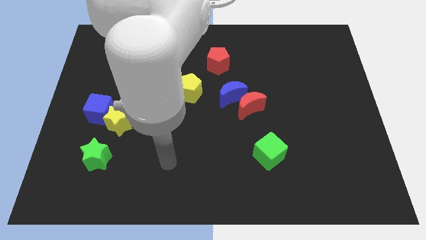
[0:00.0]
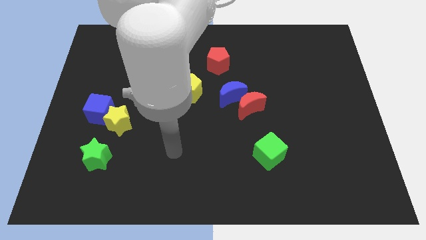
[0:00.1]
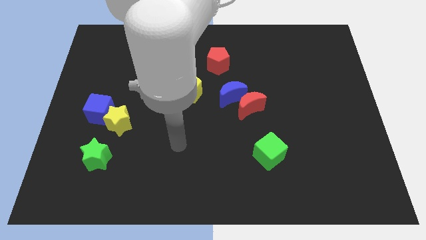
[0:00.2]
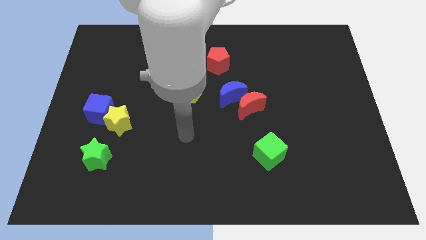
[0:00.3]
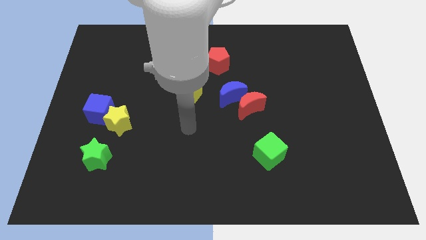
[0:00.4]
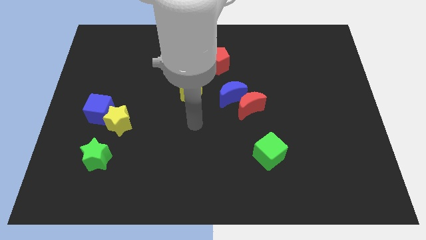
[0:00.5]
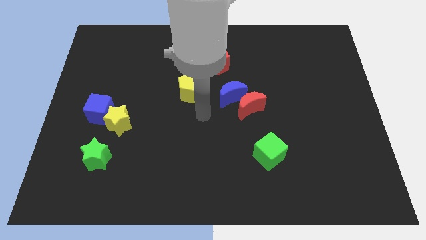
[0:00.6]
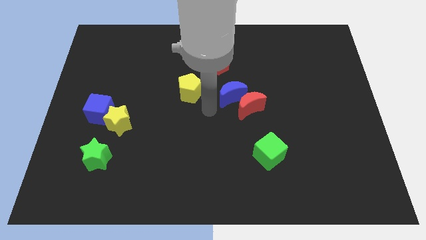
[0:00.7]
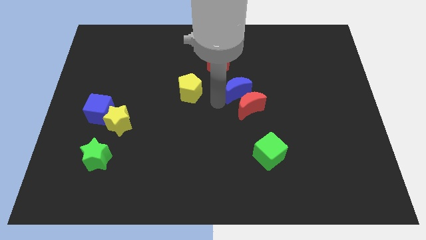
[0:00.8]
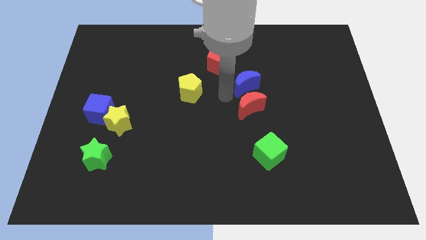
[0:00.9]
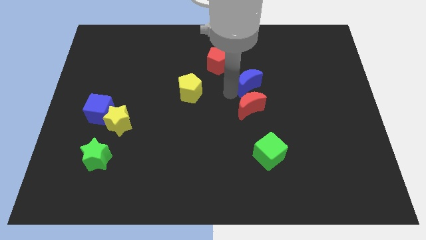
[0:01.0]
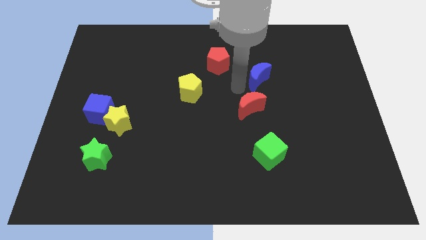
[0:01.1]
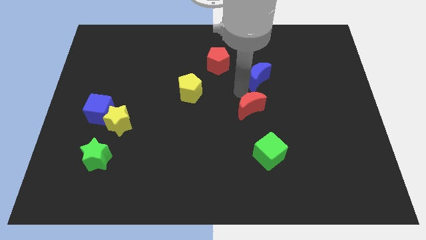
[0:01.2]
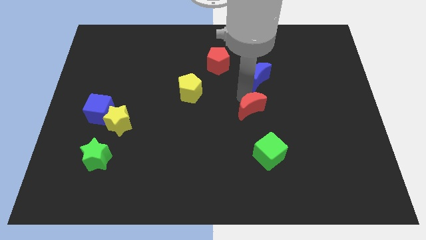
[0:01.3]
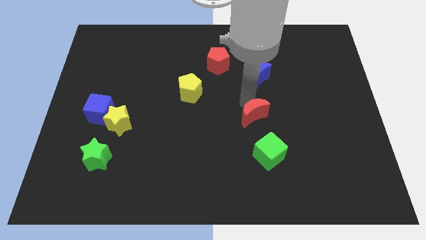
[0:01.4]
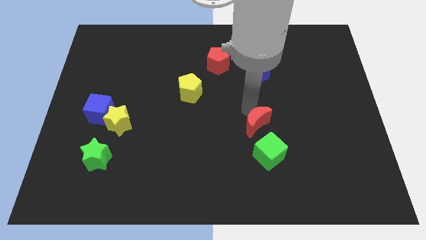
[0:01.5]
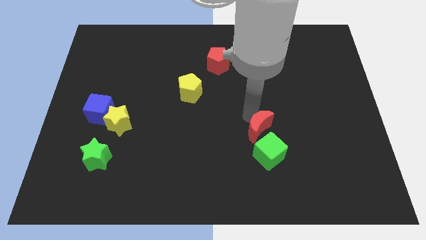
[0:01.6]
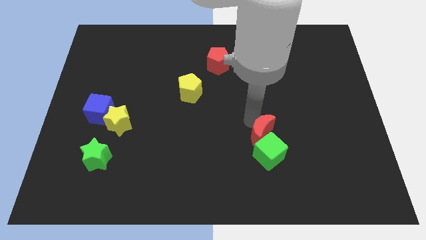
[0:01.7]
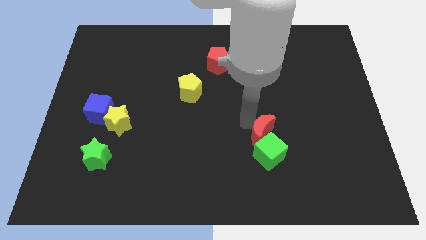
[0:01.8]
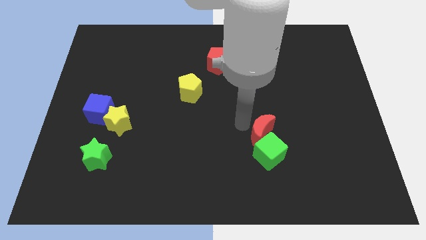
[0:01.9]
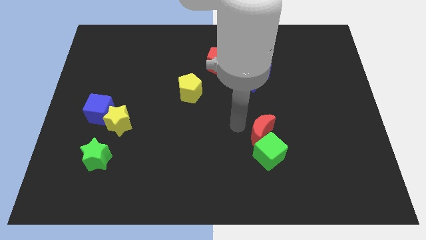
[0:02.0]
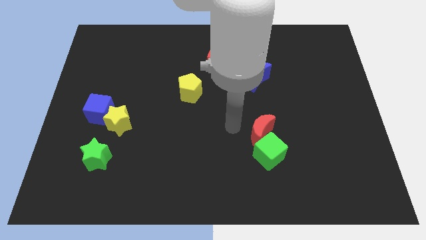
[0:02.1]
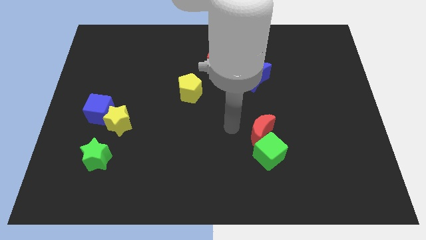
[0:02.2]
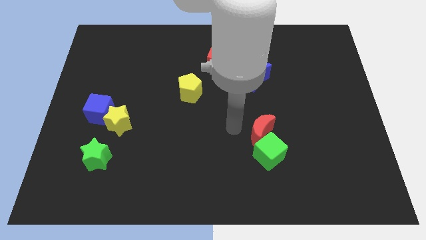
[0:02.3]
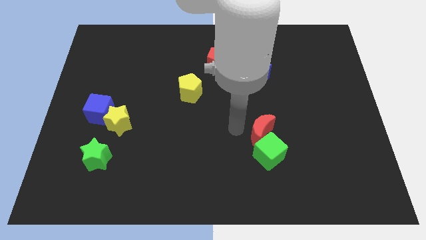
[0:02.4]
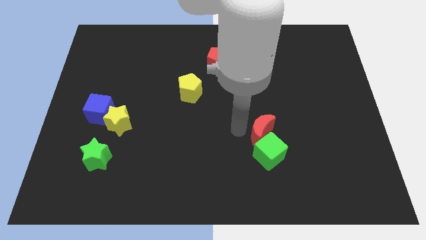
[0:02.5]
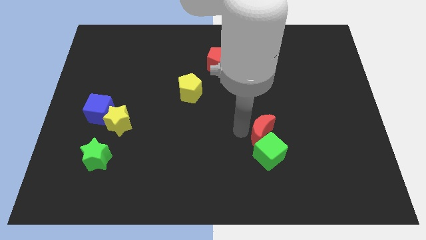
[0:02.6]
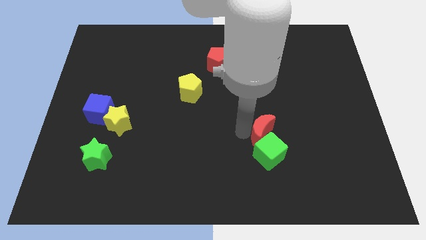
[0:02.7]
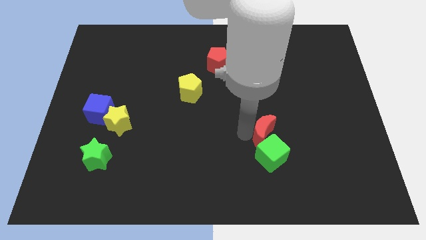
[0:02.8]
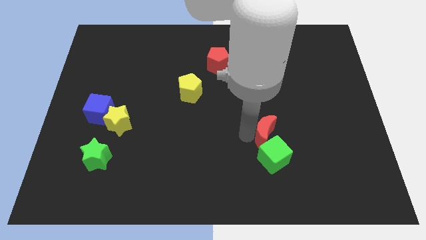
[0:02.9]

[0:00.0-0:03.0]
push the red moon downwards and right a little

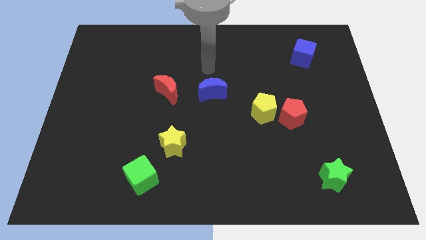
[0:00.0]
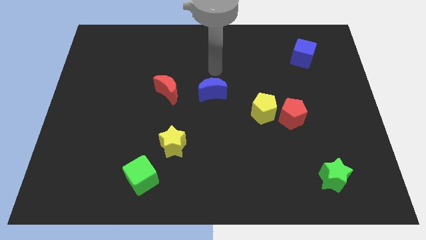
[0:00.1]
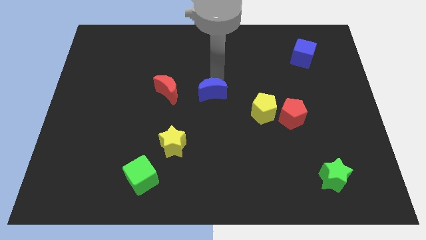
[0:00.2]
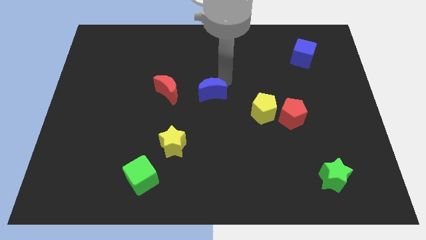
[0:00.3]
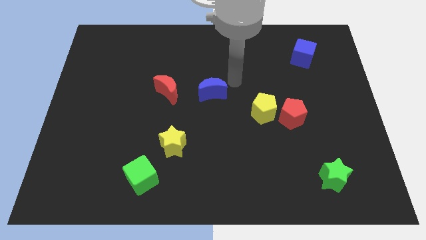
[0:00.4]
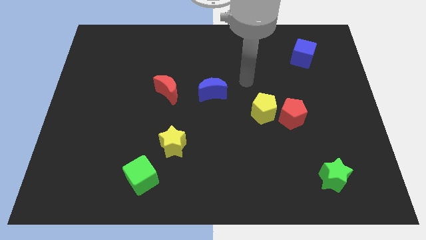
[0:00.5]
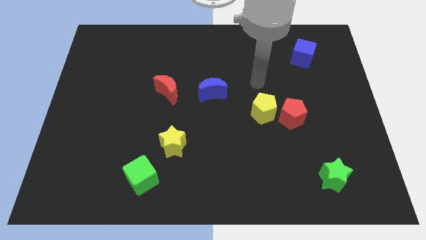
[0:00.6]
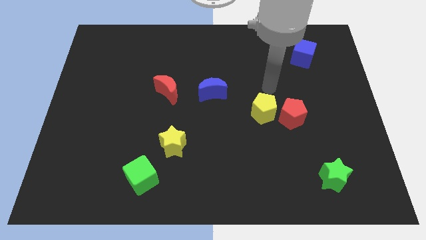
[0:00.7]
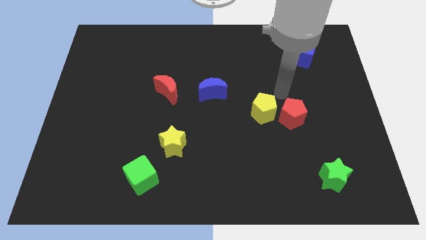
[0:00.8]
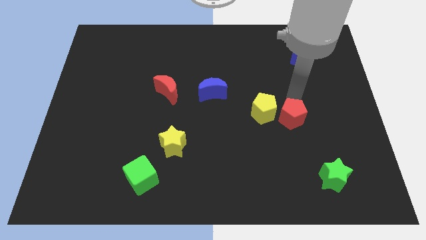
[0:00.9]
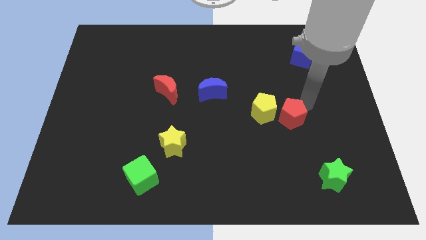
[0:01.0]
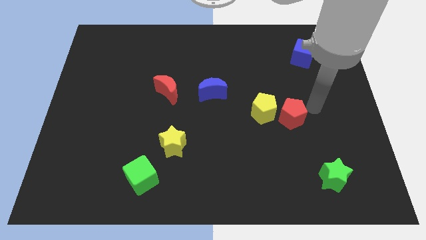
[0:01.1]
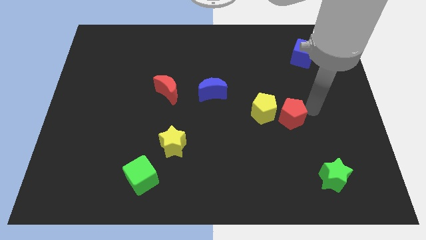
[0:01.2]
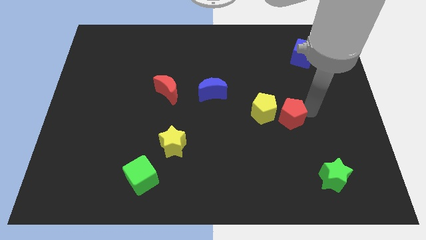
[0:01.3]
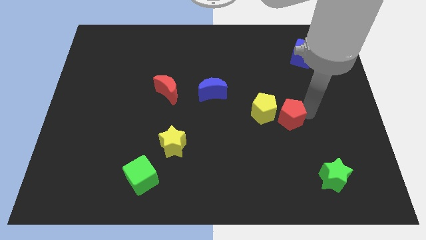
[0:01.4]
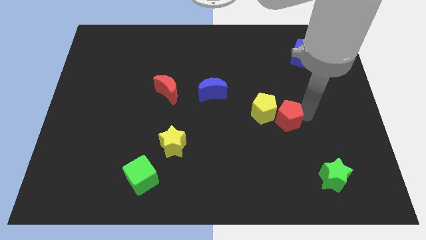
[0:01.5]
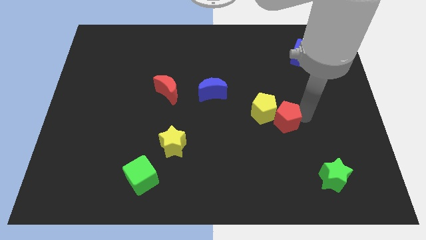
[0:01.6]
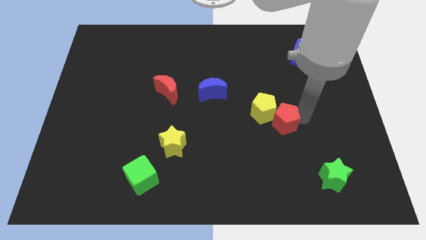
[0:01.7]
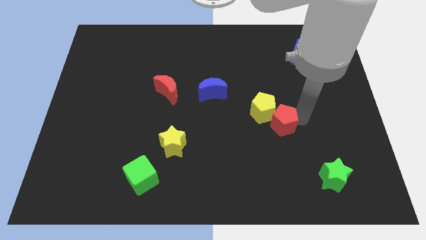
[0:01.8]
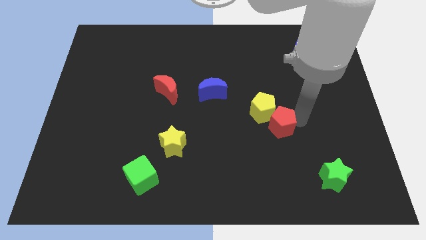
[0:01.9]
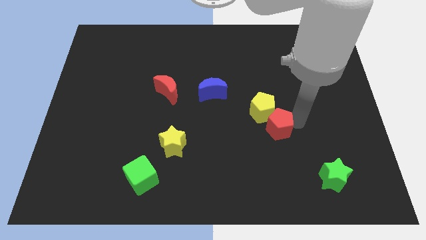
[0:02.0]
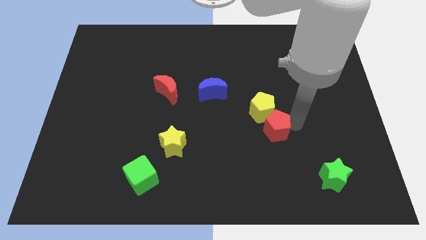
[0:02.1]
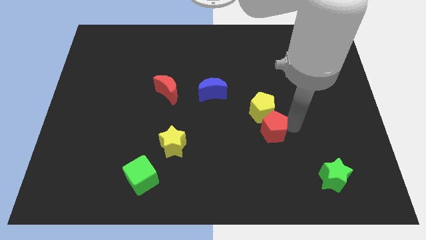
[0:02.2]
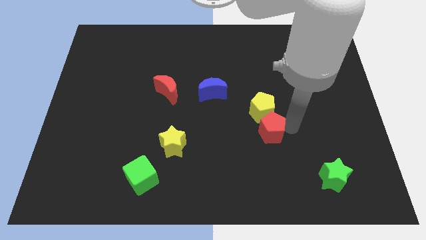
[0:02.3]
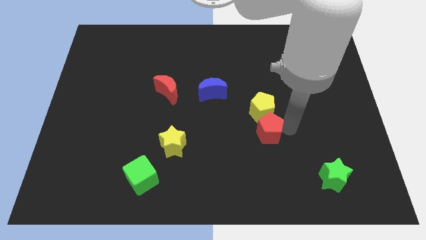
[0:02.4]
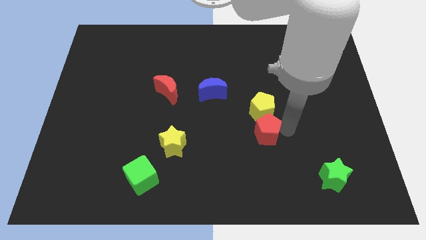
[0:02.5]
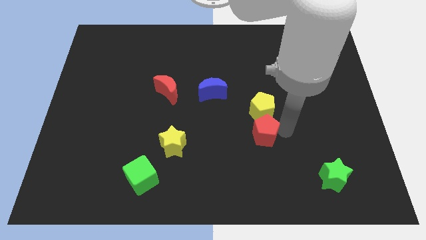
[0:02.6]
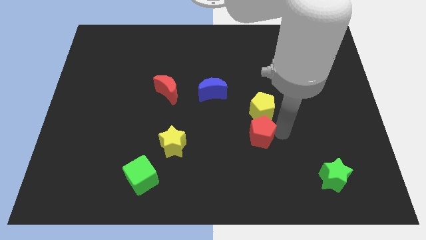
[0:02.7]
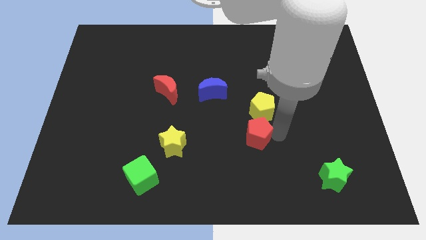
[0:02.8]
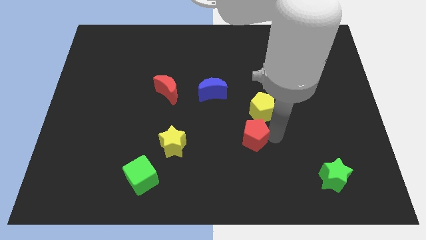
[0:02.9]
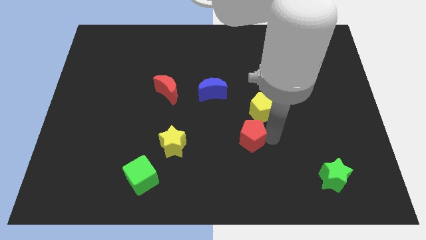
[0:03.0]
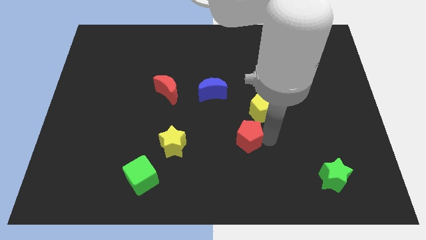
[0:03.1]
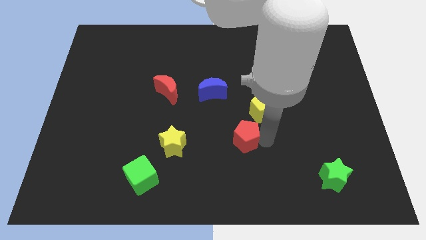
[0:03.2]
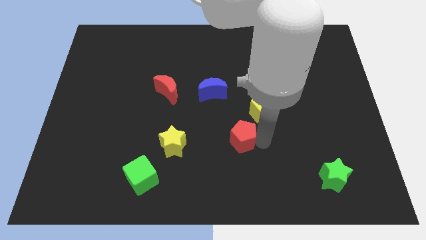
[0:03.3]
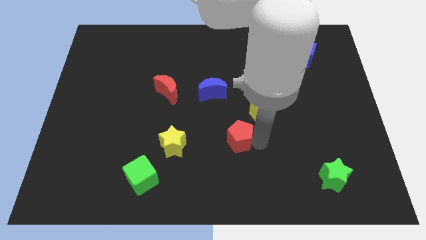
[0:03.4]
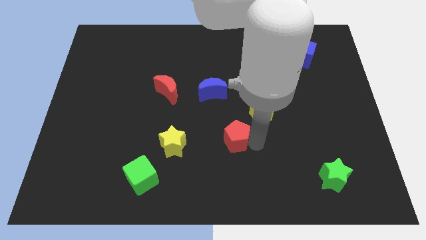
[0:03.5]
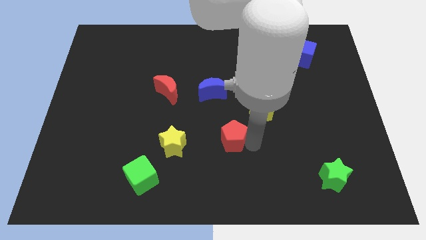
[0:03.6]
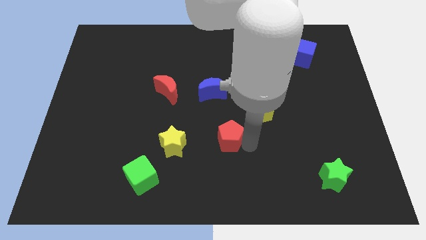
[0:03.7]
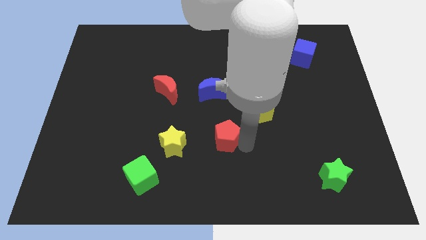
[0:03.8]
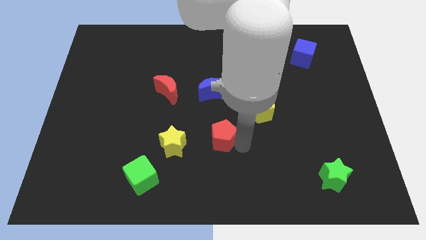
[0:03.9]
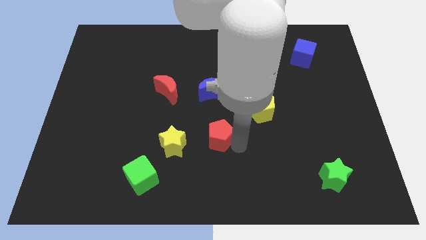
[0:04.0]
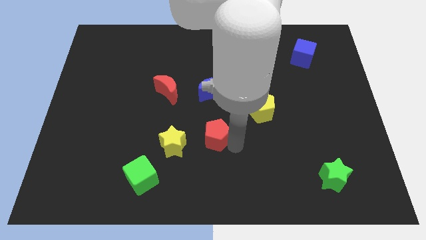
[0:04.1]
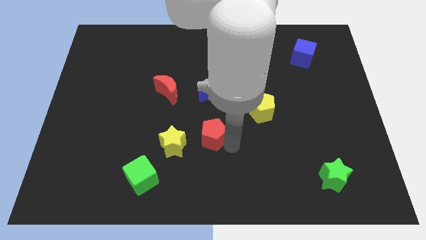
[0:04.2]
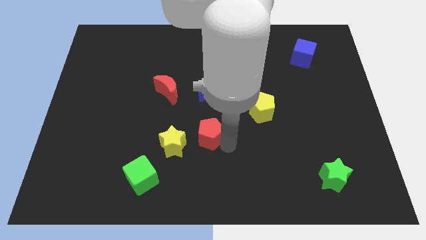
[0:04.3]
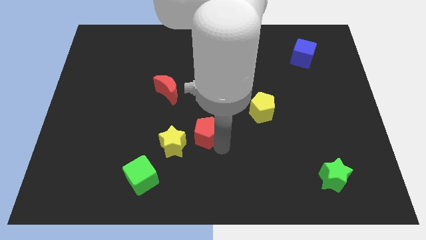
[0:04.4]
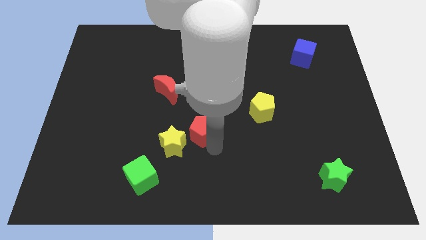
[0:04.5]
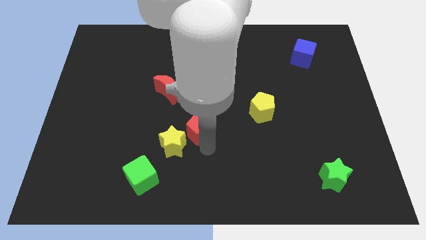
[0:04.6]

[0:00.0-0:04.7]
move the red pentagon to the left

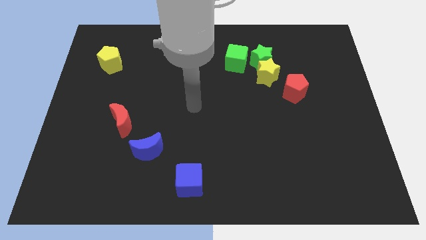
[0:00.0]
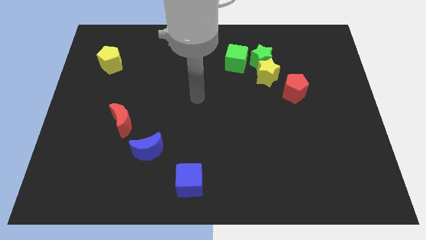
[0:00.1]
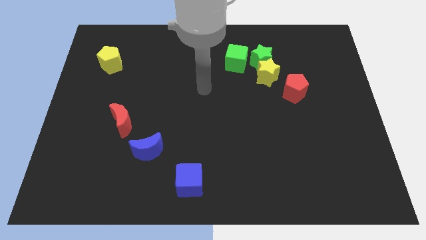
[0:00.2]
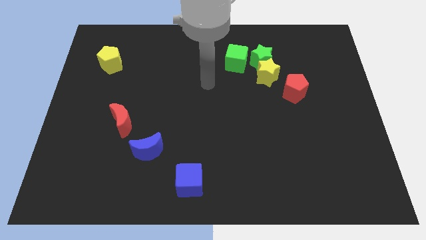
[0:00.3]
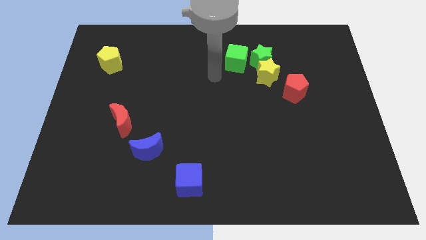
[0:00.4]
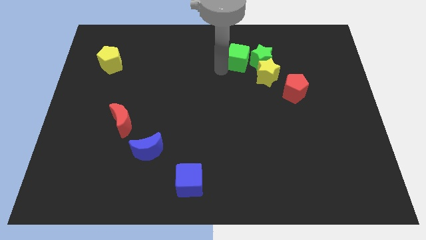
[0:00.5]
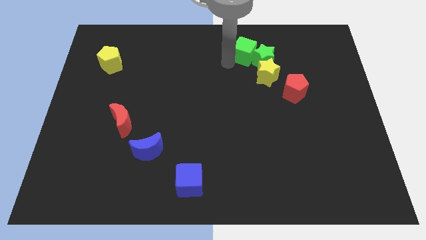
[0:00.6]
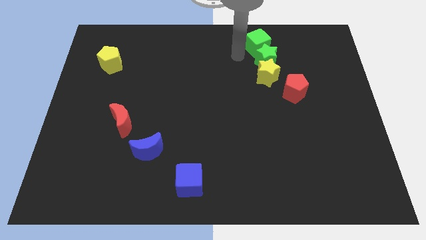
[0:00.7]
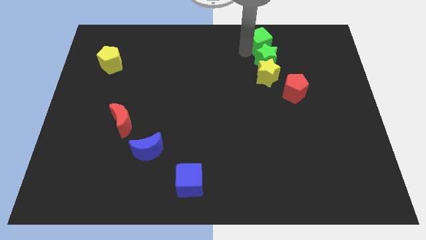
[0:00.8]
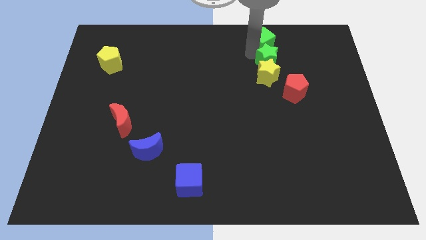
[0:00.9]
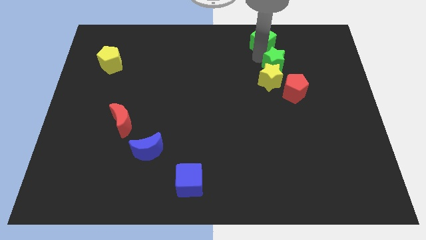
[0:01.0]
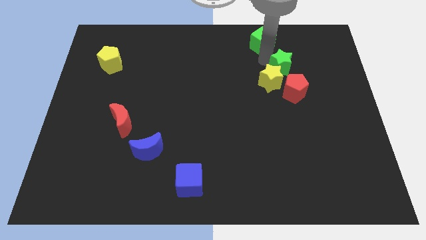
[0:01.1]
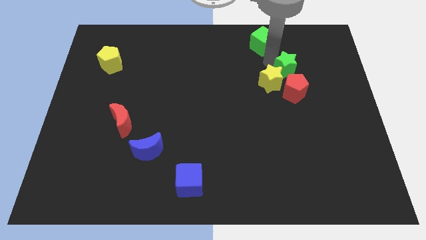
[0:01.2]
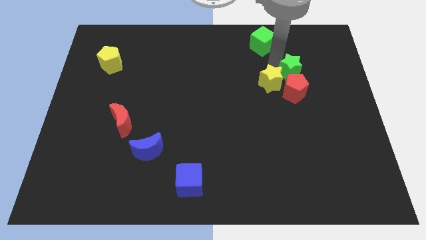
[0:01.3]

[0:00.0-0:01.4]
slide the green star diagonally downwards and right a little bit
